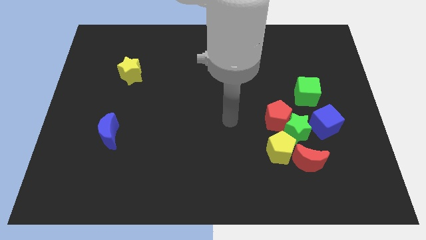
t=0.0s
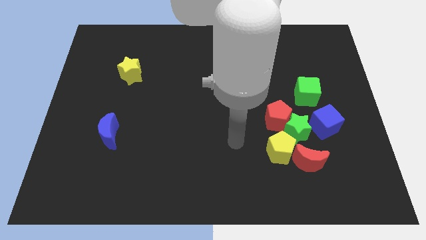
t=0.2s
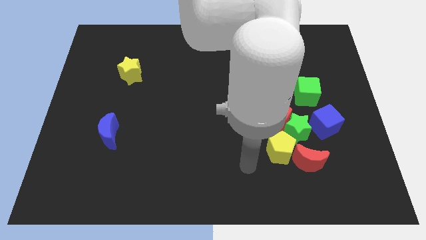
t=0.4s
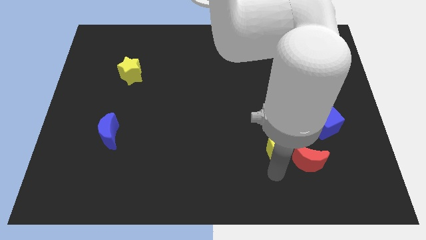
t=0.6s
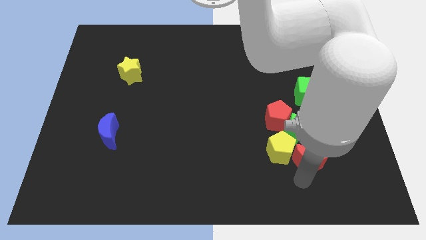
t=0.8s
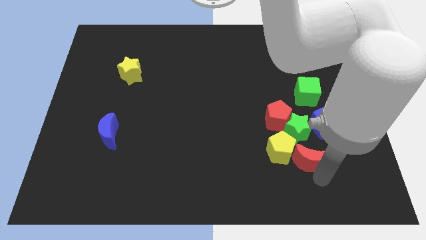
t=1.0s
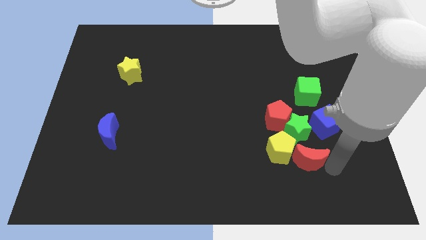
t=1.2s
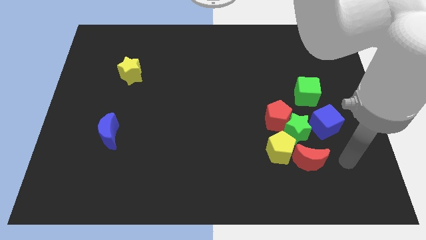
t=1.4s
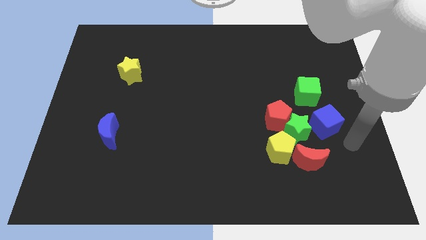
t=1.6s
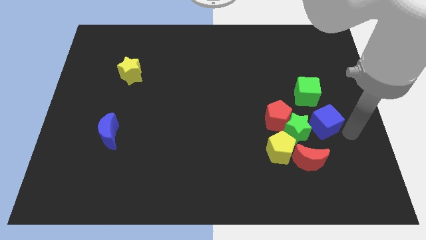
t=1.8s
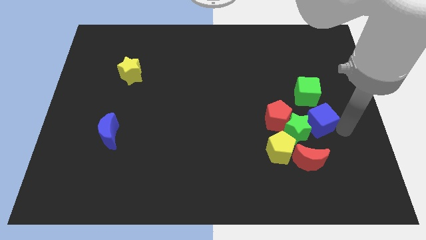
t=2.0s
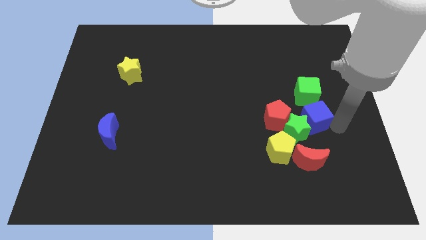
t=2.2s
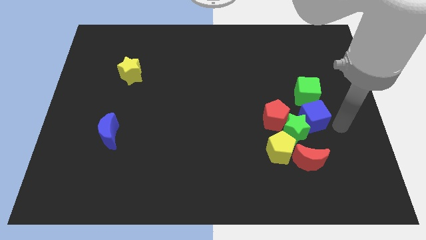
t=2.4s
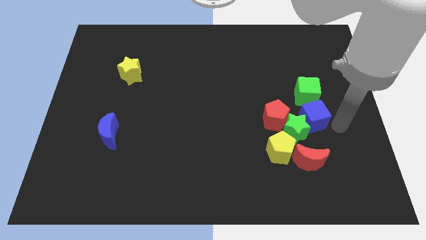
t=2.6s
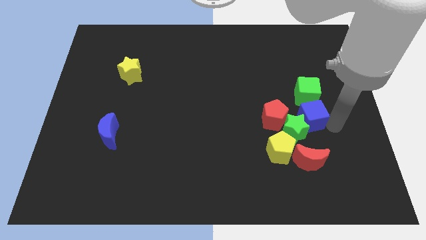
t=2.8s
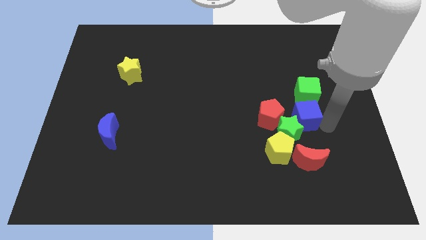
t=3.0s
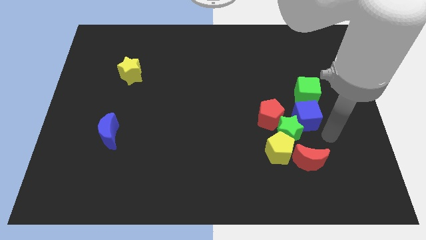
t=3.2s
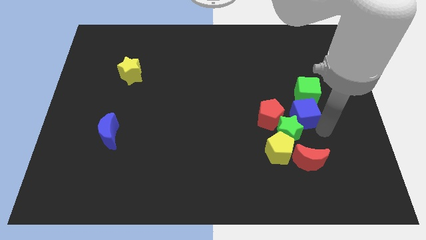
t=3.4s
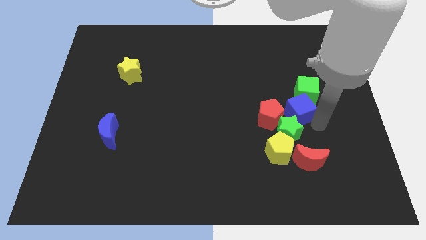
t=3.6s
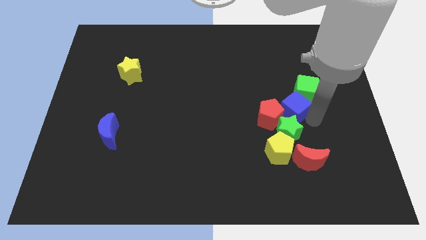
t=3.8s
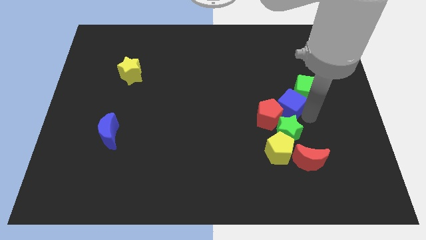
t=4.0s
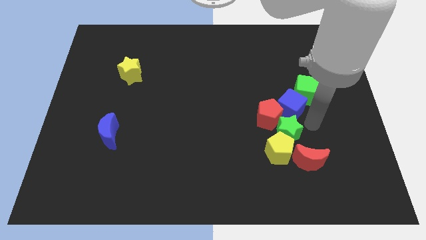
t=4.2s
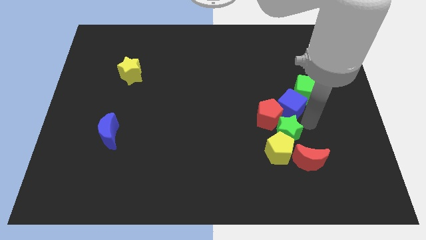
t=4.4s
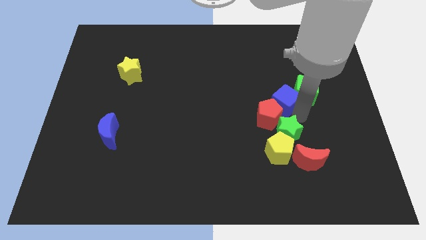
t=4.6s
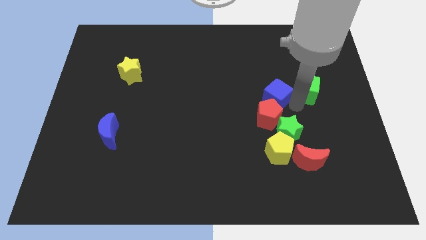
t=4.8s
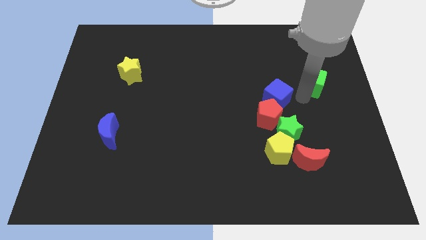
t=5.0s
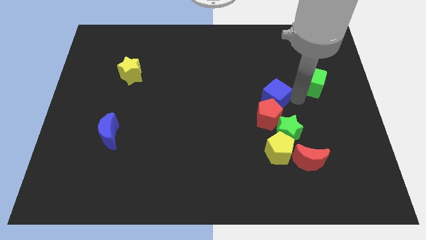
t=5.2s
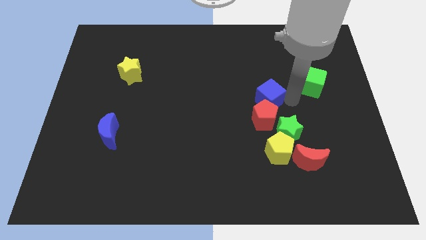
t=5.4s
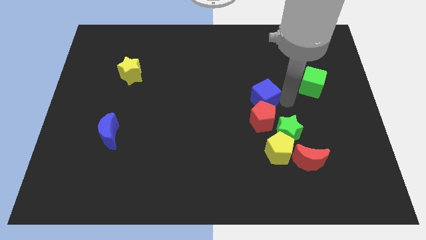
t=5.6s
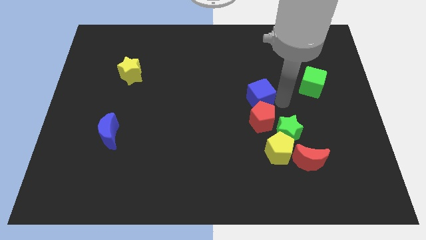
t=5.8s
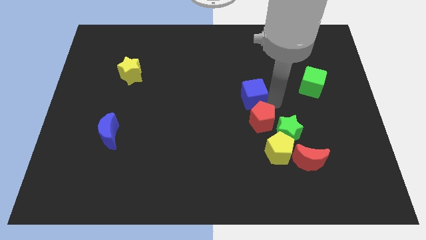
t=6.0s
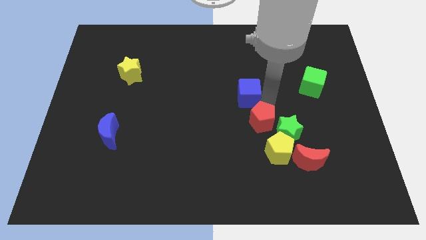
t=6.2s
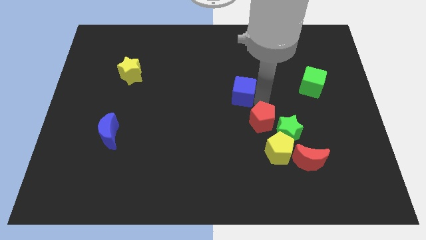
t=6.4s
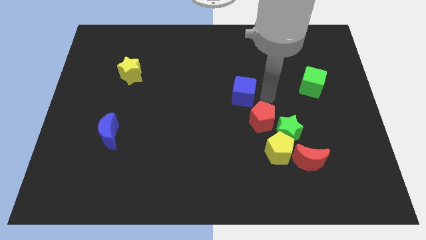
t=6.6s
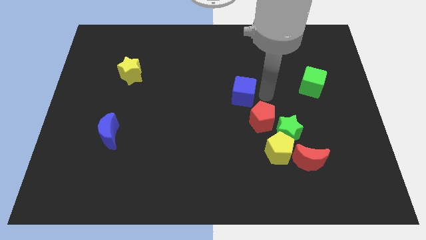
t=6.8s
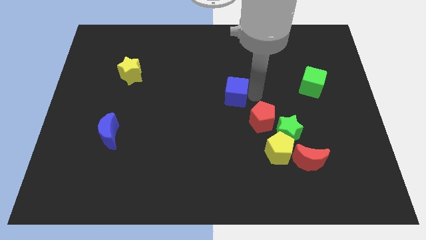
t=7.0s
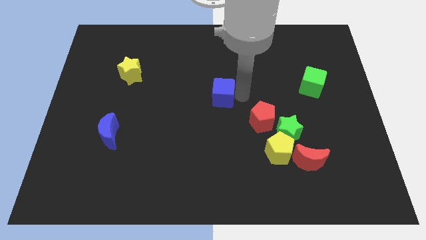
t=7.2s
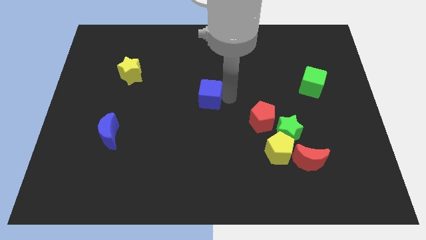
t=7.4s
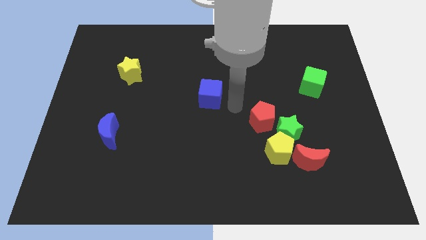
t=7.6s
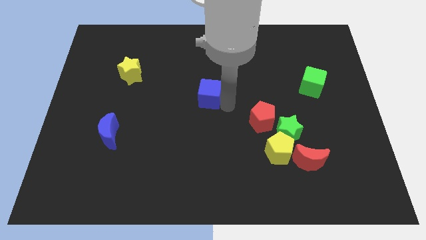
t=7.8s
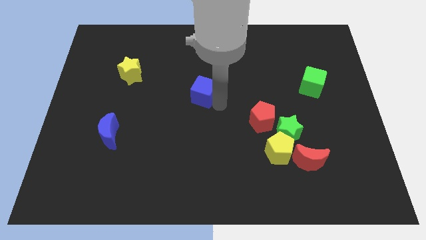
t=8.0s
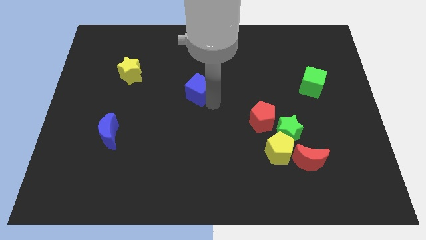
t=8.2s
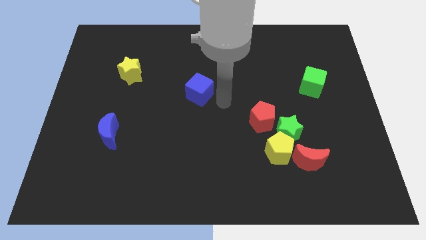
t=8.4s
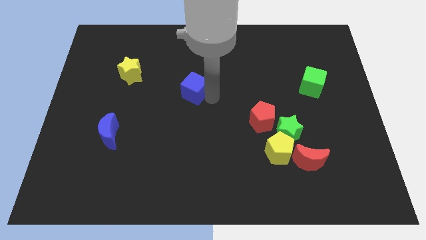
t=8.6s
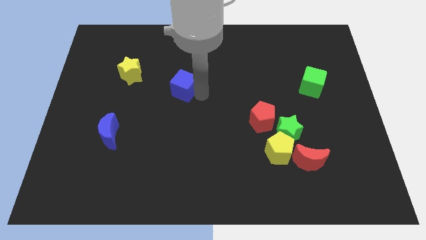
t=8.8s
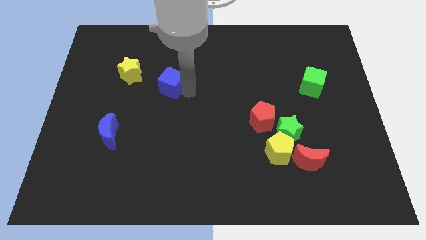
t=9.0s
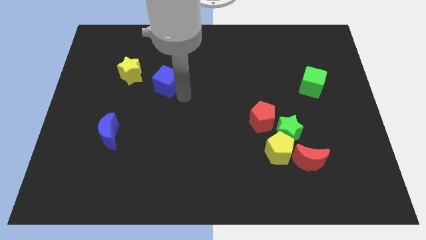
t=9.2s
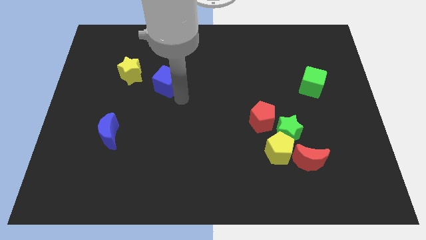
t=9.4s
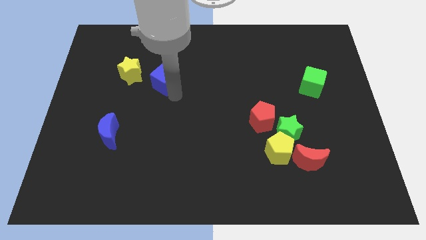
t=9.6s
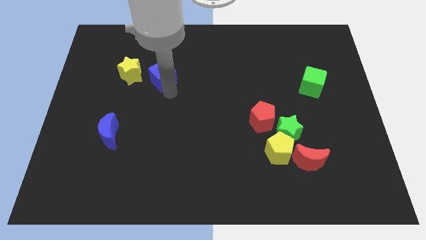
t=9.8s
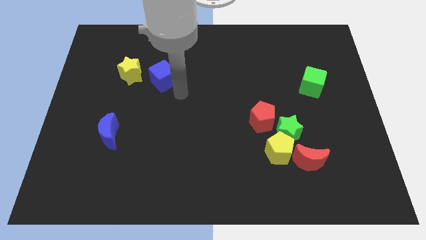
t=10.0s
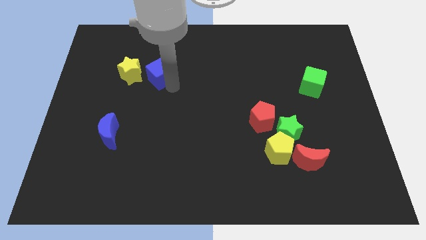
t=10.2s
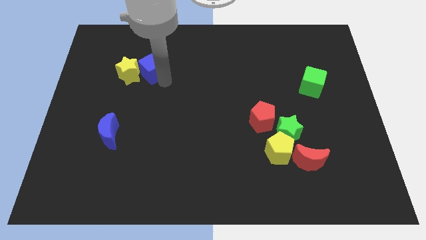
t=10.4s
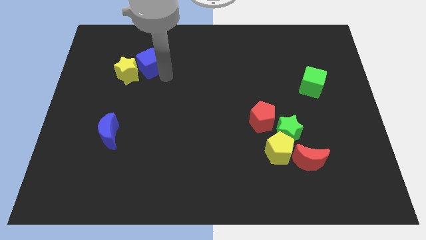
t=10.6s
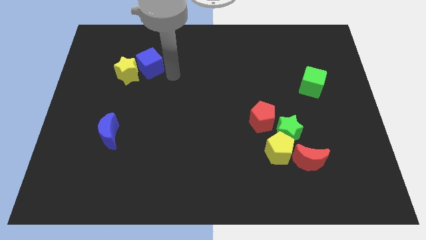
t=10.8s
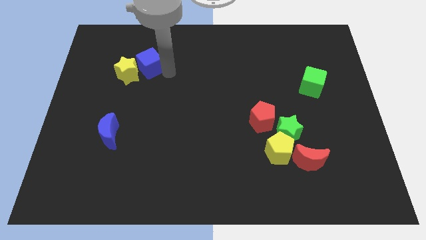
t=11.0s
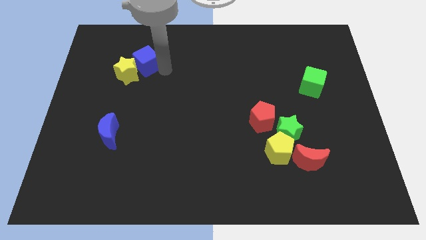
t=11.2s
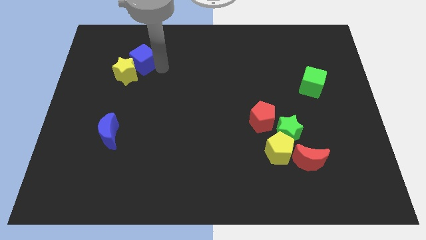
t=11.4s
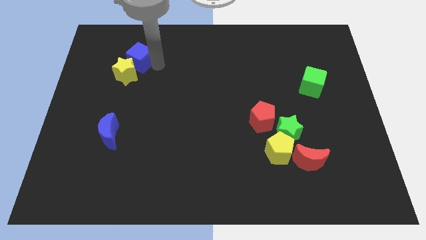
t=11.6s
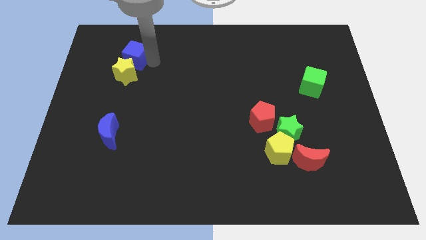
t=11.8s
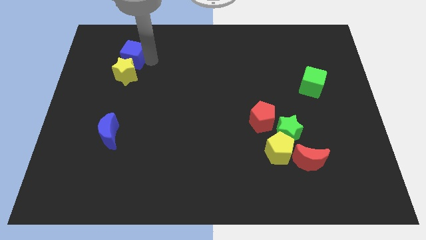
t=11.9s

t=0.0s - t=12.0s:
put the blue cube to the top left side of the yellow star

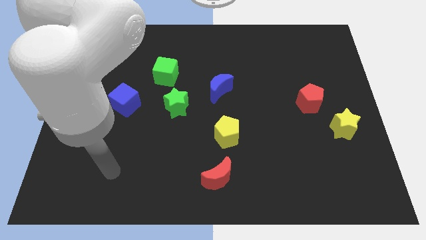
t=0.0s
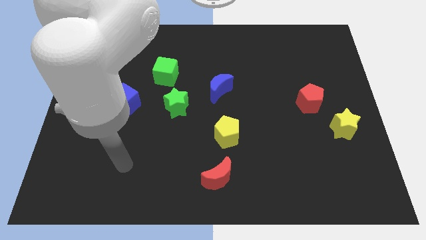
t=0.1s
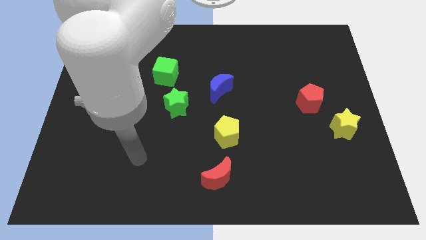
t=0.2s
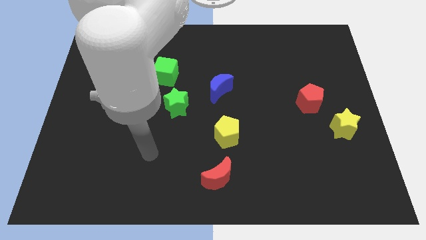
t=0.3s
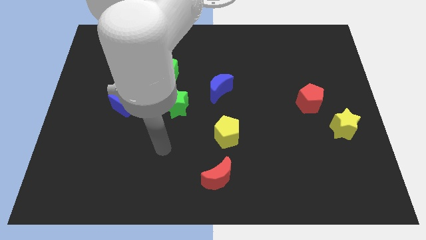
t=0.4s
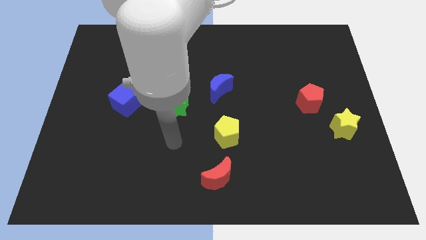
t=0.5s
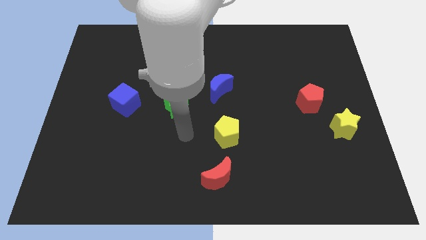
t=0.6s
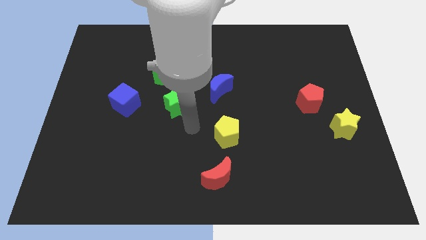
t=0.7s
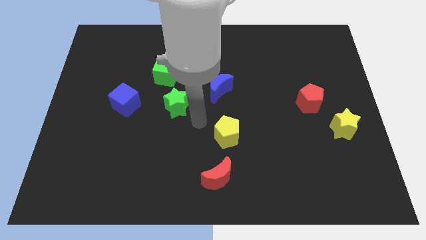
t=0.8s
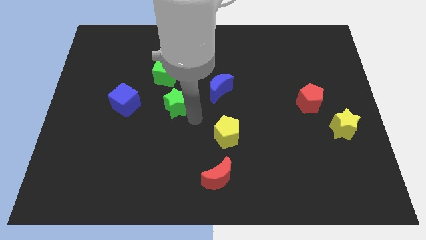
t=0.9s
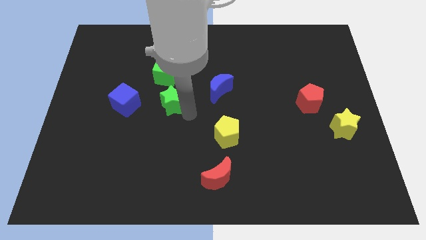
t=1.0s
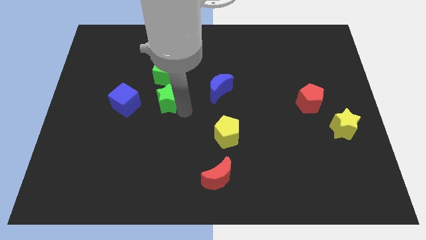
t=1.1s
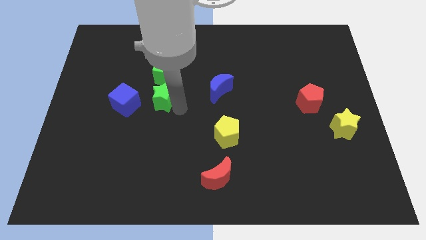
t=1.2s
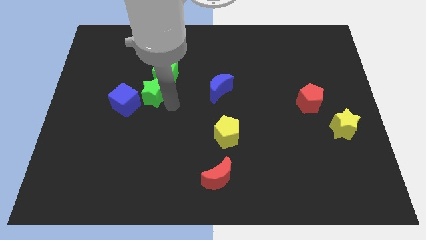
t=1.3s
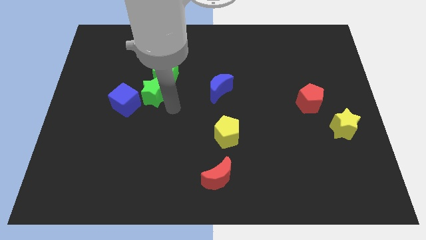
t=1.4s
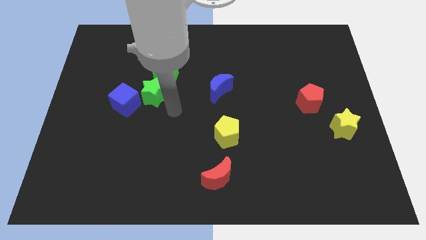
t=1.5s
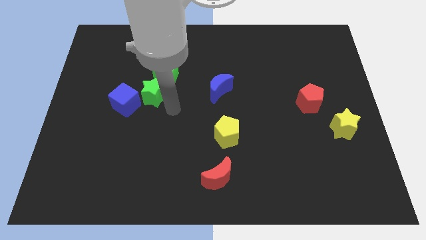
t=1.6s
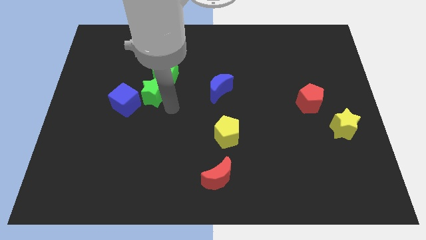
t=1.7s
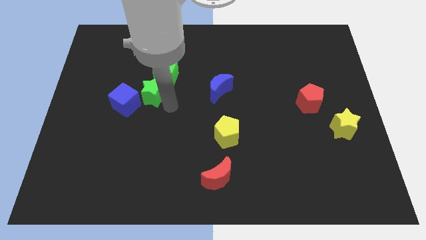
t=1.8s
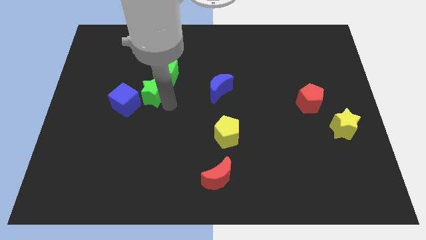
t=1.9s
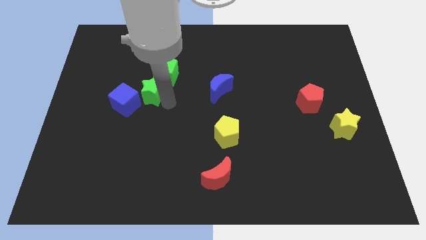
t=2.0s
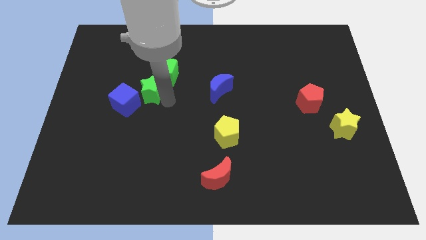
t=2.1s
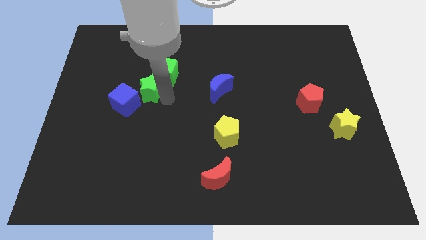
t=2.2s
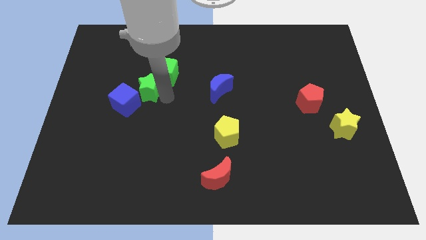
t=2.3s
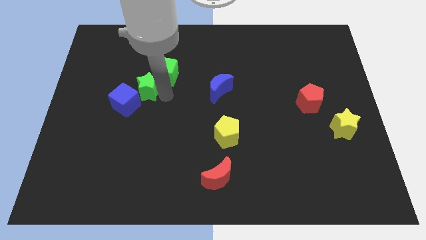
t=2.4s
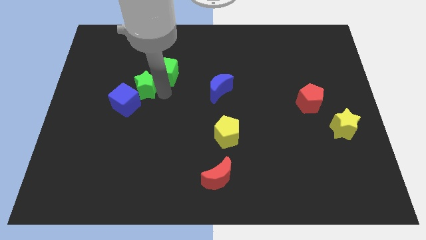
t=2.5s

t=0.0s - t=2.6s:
push the green star just left of the green cube
